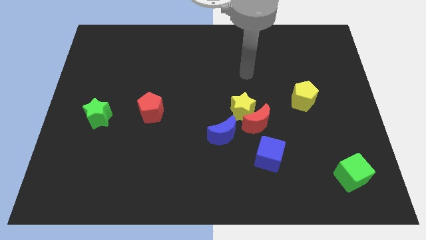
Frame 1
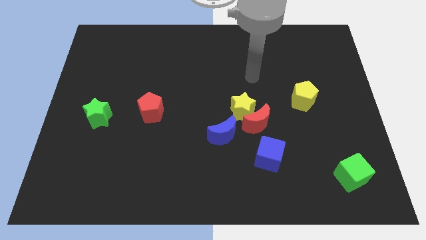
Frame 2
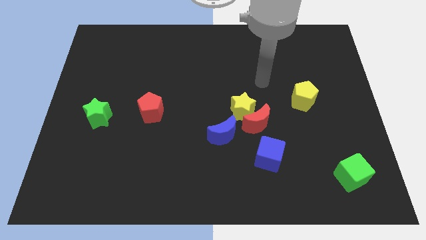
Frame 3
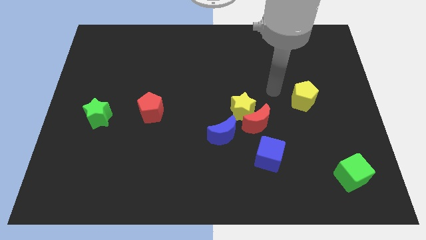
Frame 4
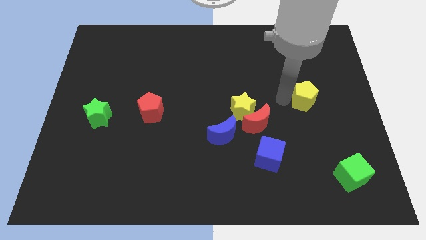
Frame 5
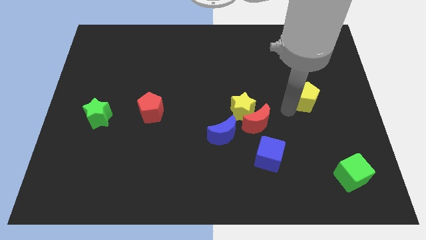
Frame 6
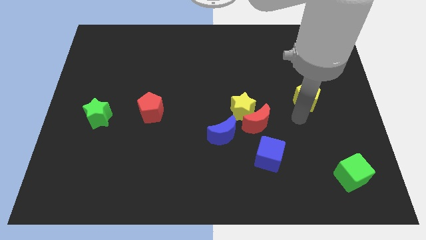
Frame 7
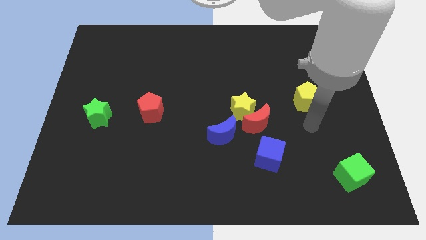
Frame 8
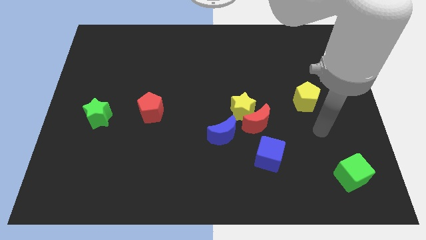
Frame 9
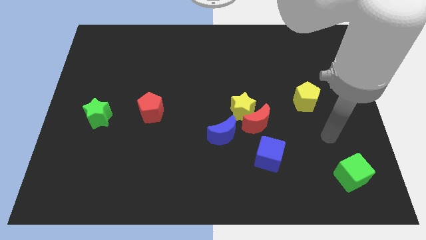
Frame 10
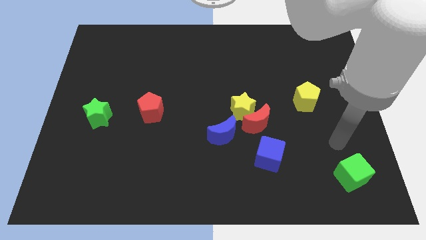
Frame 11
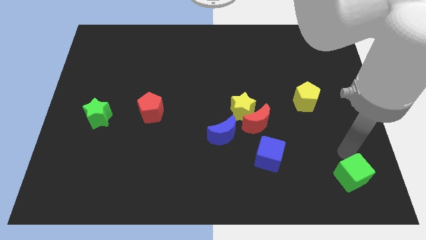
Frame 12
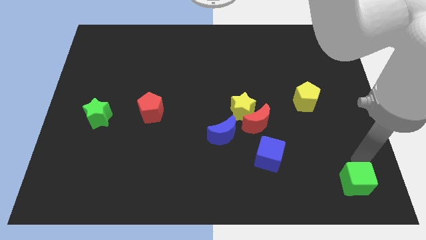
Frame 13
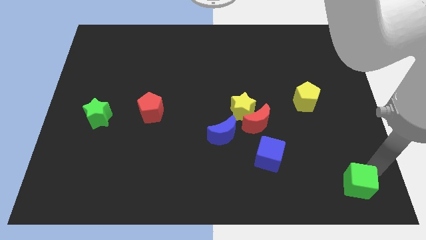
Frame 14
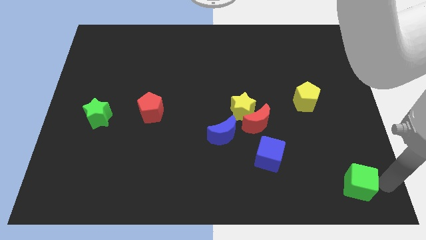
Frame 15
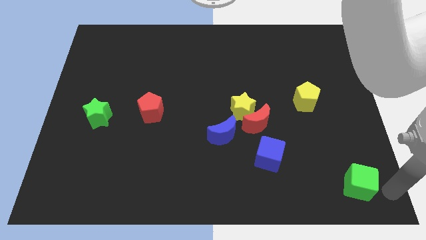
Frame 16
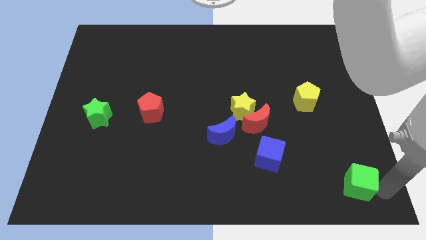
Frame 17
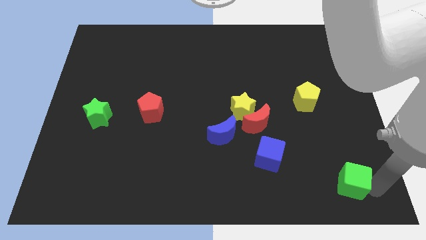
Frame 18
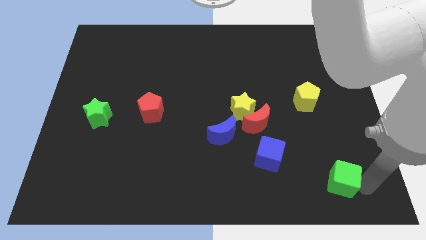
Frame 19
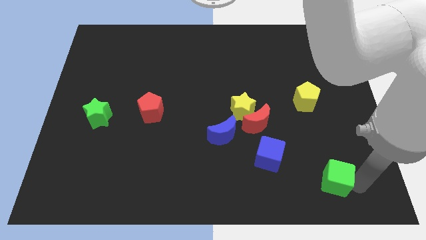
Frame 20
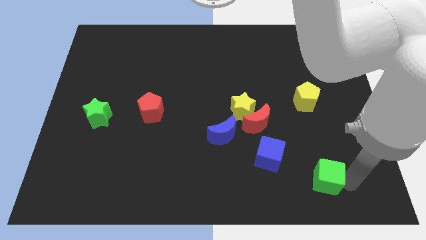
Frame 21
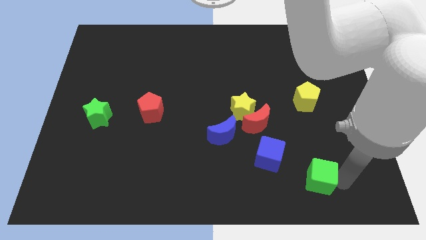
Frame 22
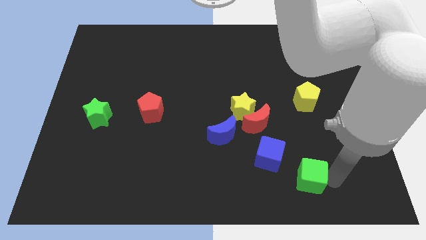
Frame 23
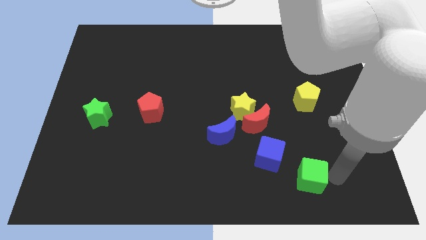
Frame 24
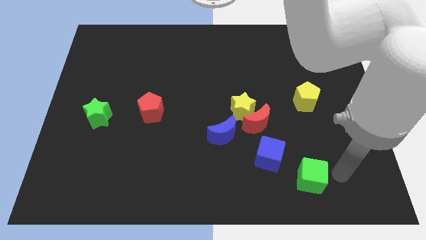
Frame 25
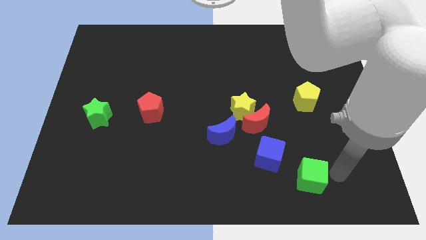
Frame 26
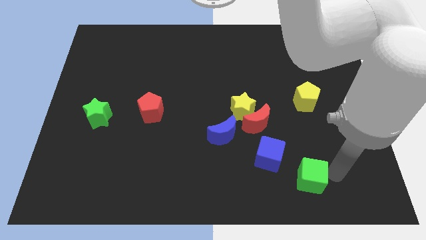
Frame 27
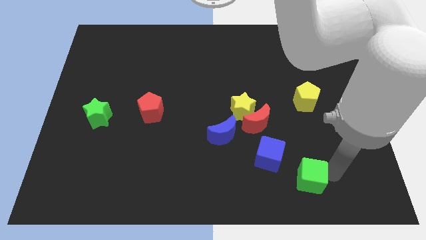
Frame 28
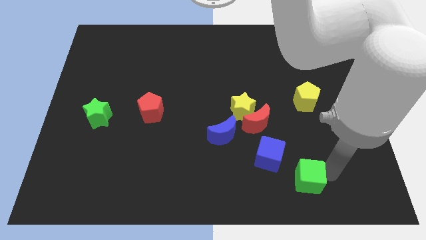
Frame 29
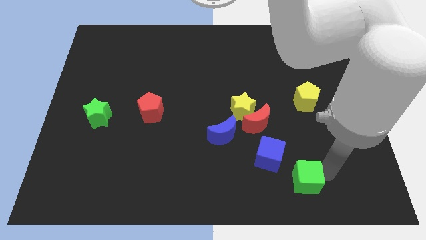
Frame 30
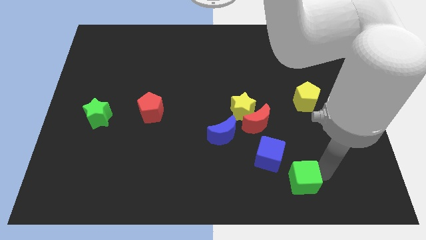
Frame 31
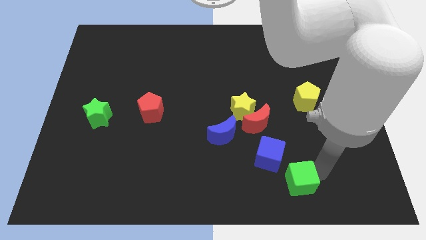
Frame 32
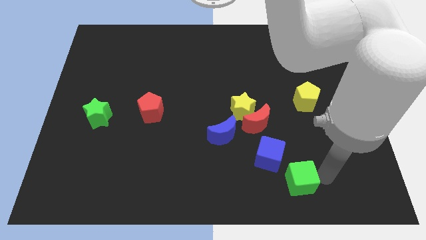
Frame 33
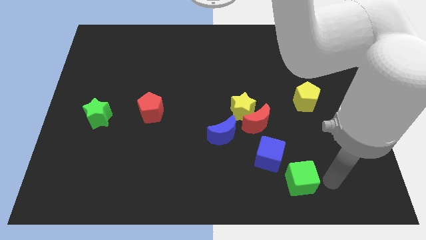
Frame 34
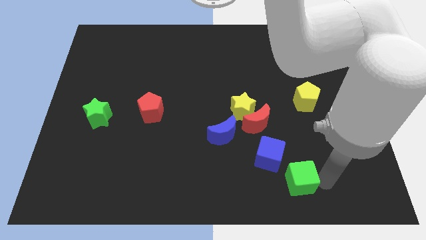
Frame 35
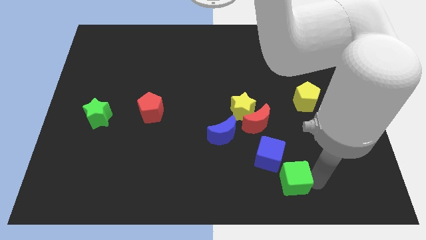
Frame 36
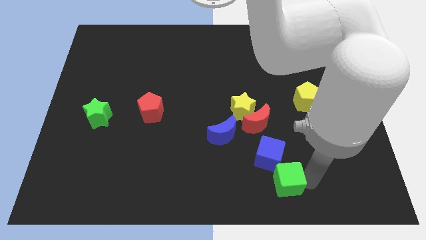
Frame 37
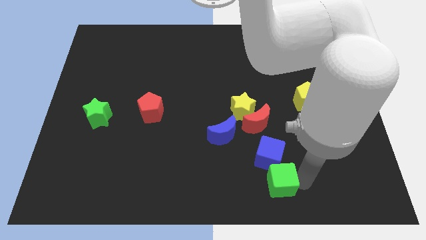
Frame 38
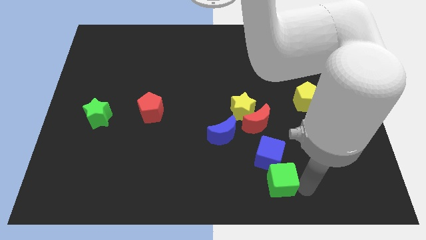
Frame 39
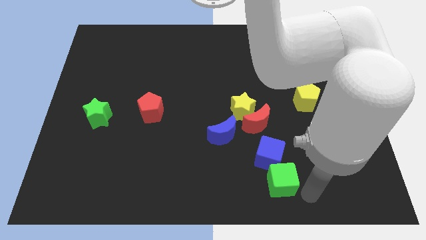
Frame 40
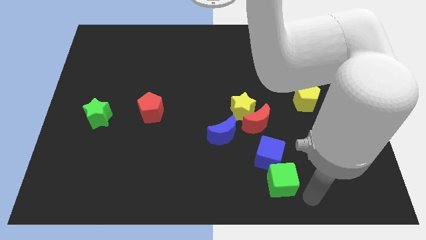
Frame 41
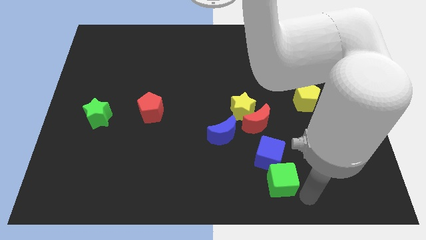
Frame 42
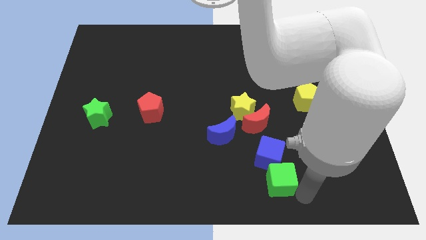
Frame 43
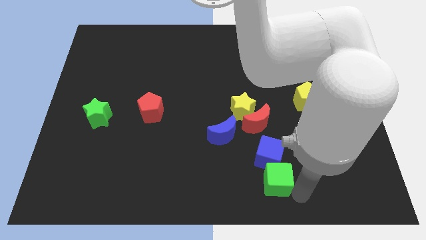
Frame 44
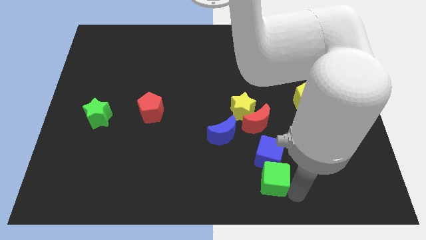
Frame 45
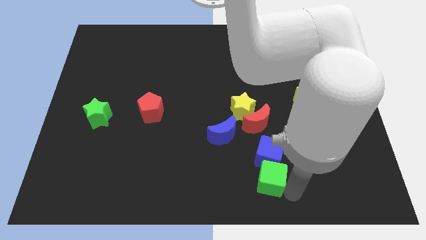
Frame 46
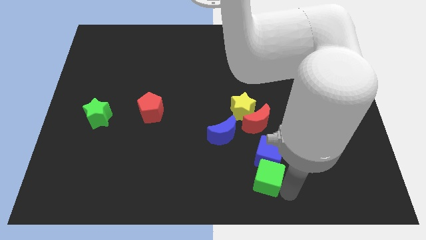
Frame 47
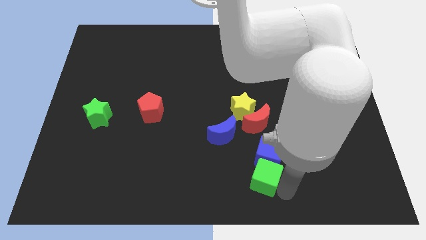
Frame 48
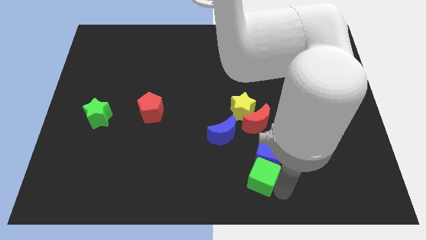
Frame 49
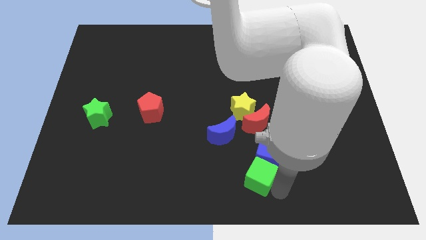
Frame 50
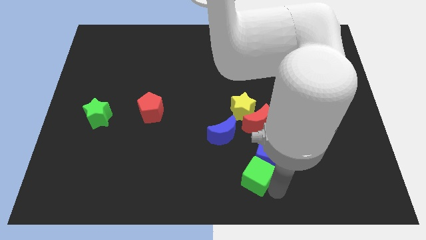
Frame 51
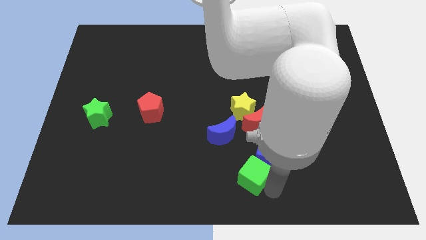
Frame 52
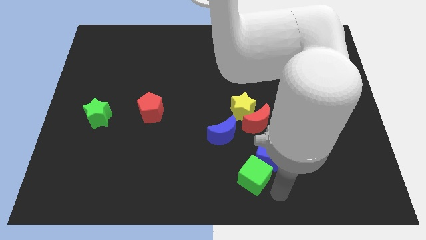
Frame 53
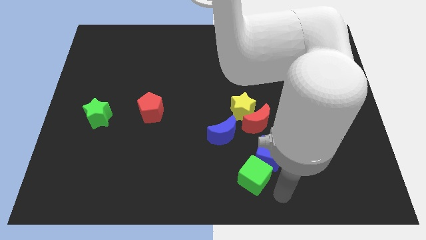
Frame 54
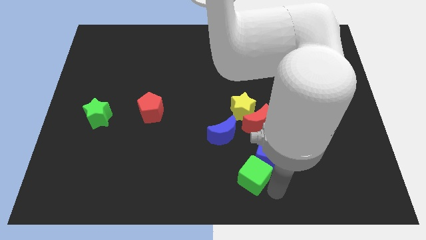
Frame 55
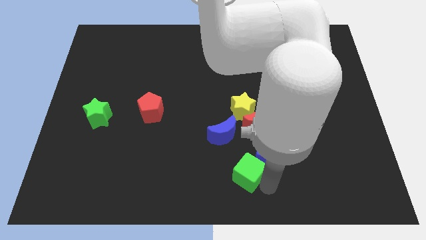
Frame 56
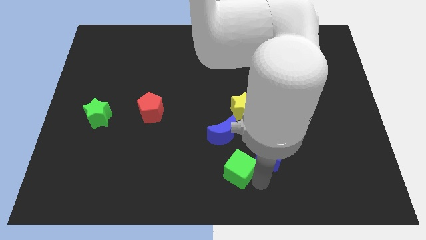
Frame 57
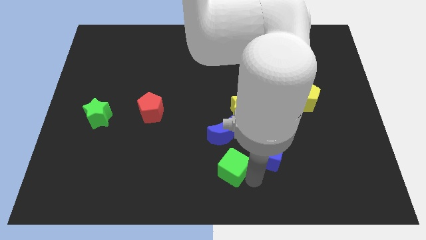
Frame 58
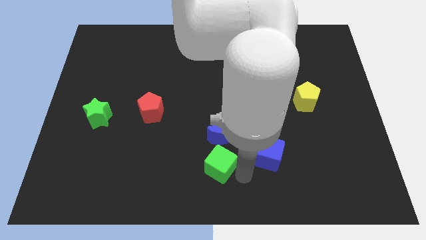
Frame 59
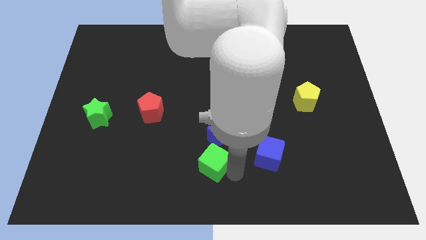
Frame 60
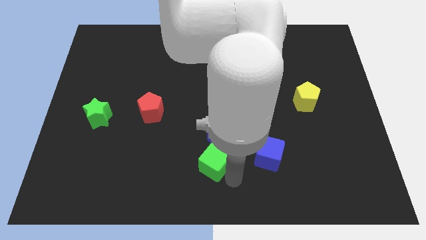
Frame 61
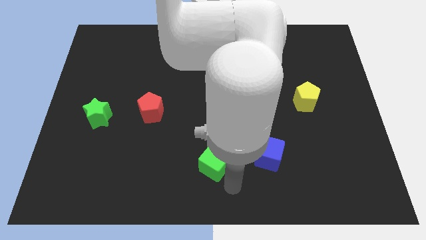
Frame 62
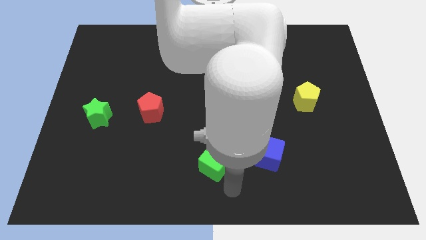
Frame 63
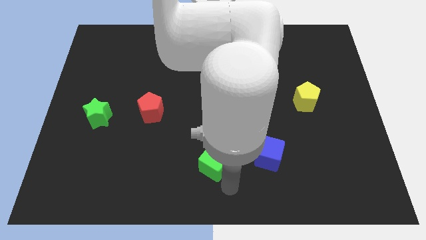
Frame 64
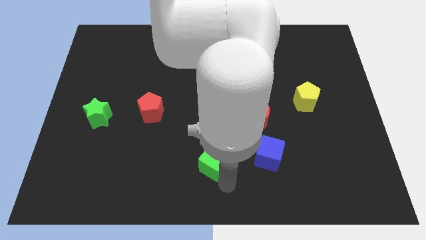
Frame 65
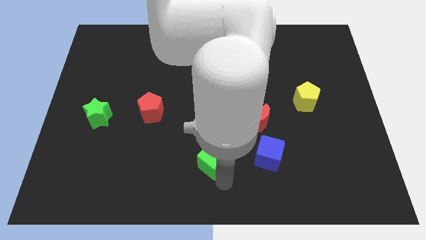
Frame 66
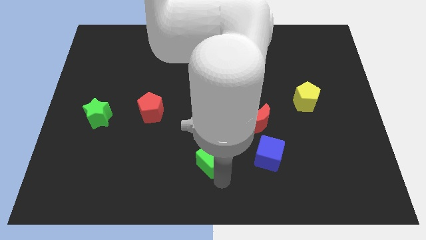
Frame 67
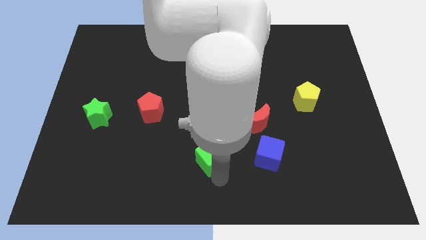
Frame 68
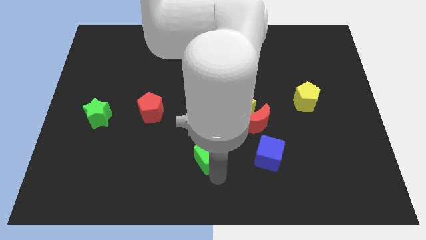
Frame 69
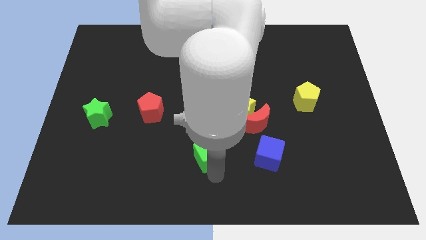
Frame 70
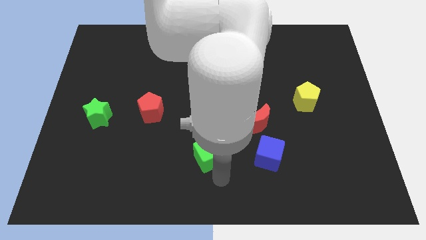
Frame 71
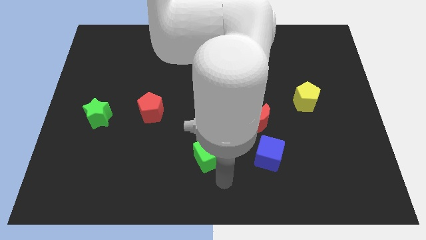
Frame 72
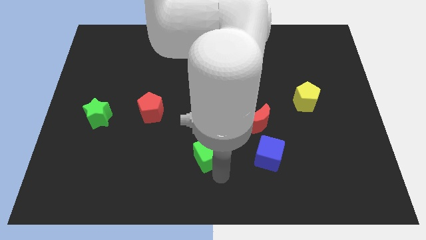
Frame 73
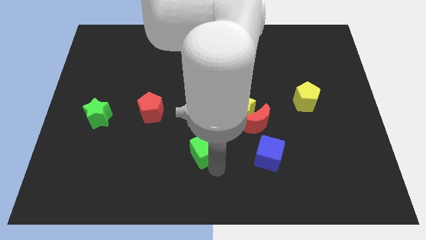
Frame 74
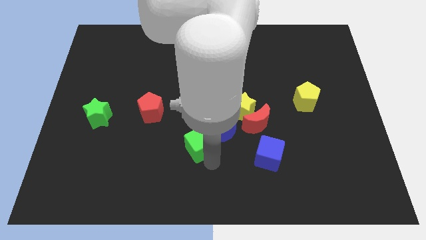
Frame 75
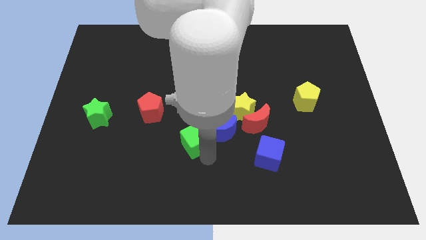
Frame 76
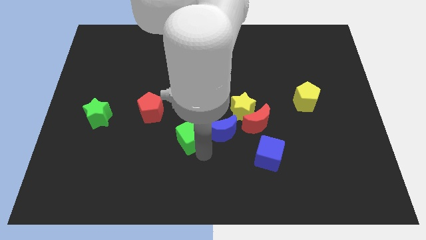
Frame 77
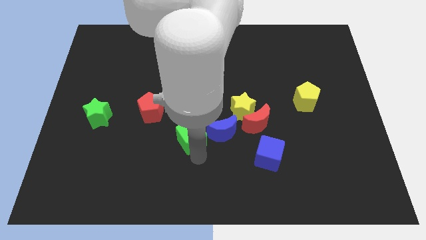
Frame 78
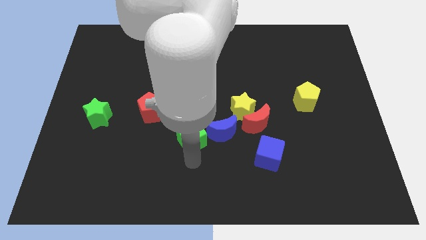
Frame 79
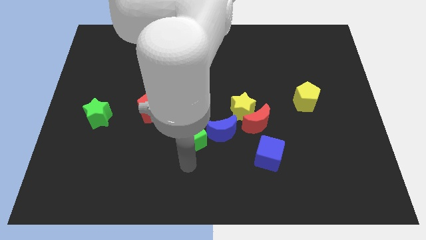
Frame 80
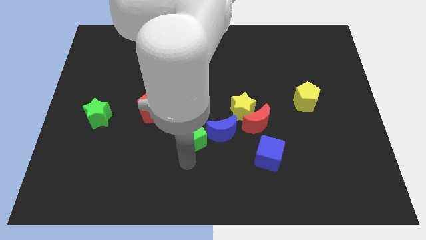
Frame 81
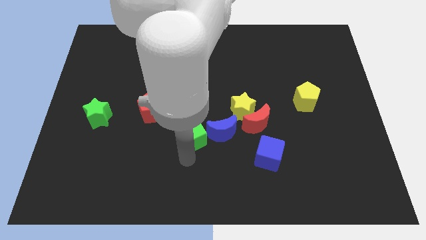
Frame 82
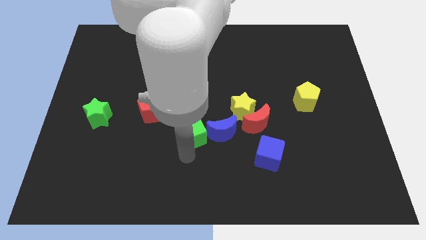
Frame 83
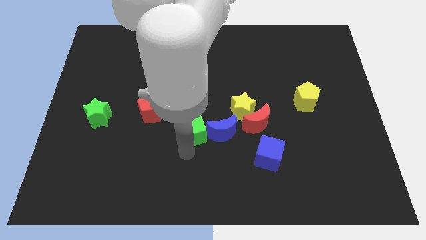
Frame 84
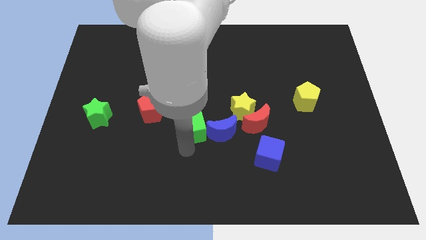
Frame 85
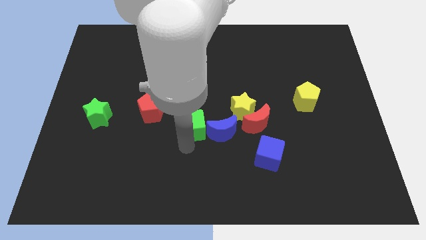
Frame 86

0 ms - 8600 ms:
put the green cube to the right side of the red pentagon
